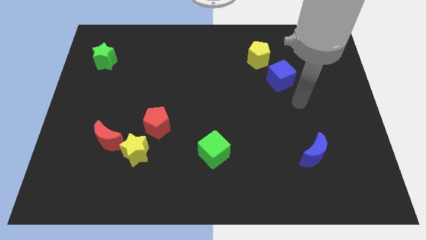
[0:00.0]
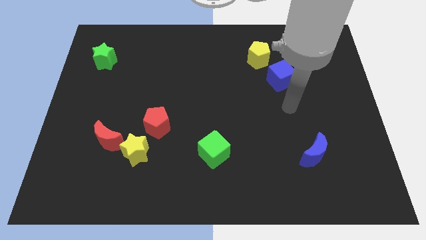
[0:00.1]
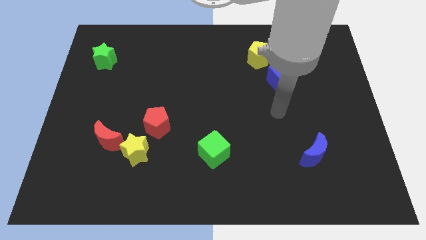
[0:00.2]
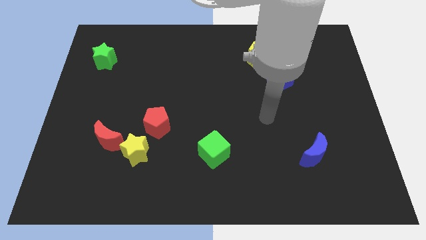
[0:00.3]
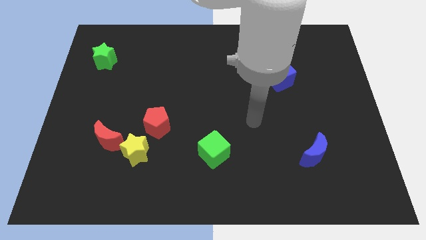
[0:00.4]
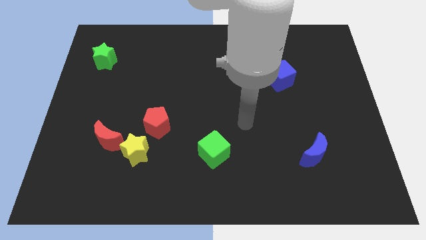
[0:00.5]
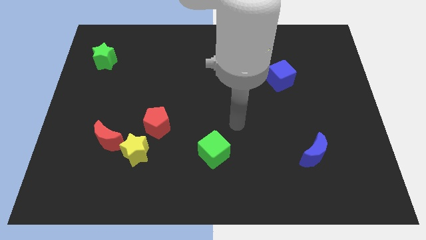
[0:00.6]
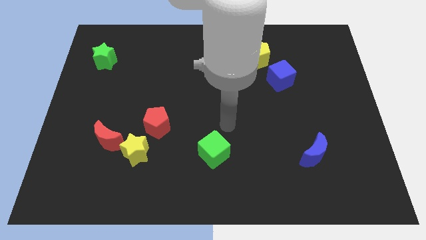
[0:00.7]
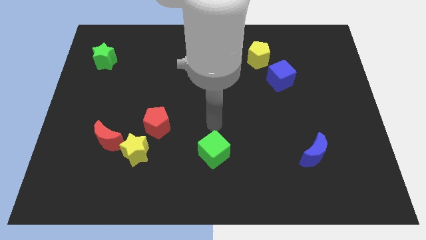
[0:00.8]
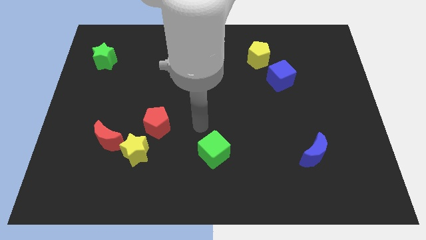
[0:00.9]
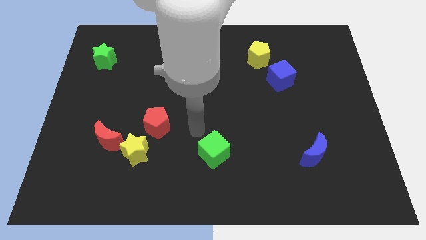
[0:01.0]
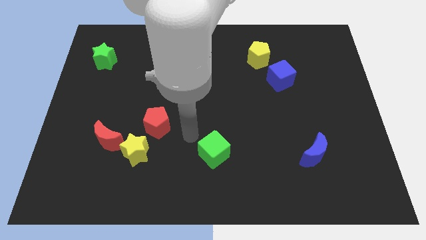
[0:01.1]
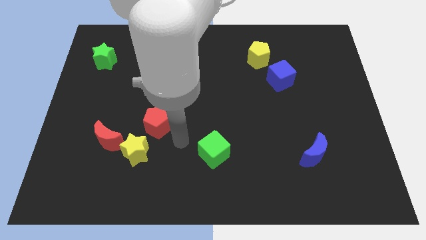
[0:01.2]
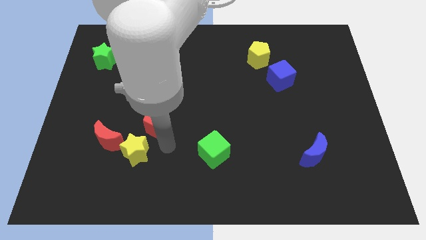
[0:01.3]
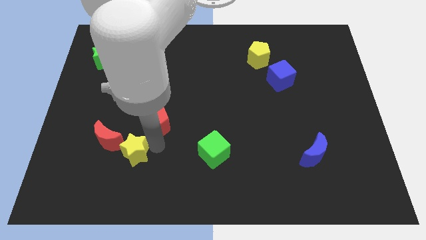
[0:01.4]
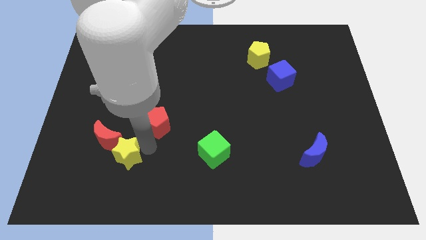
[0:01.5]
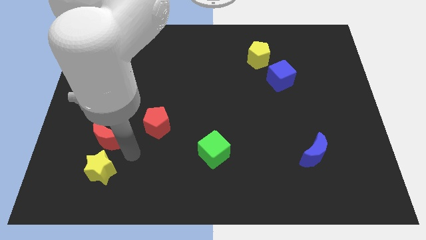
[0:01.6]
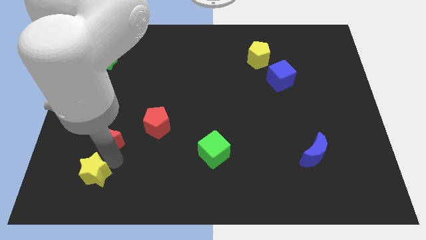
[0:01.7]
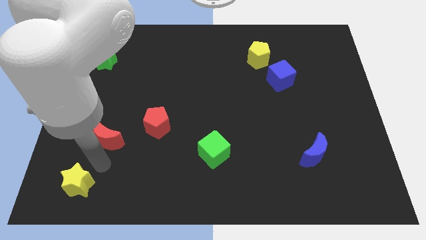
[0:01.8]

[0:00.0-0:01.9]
separate the red moon from the yellow star

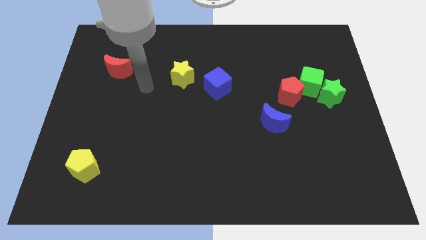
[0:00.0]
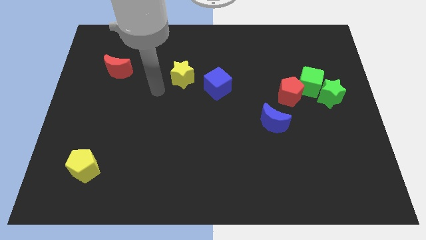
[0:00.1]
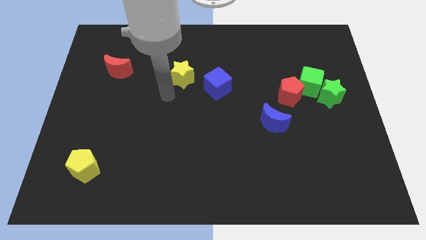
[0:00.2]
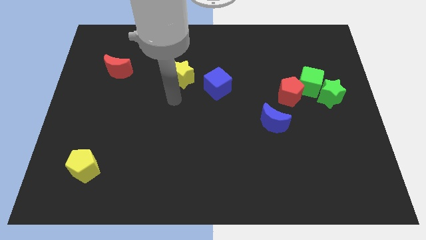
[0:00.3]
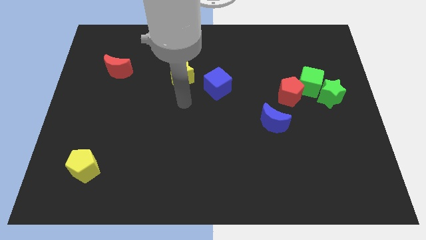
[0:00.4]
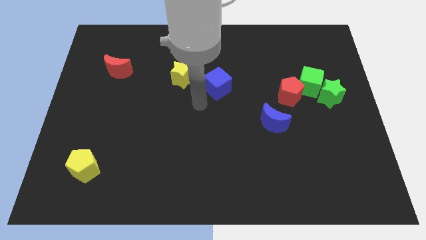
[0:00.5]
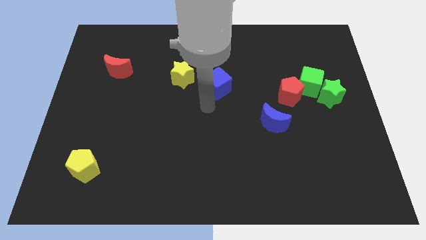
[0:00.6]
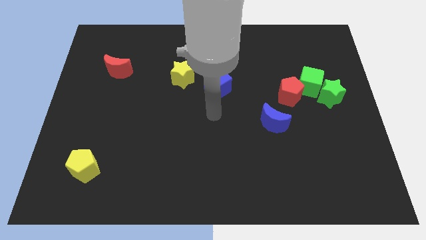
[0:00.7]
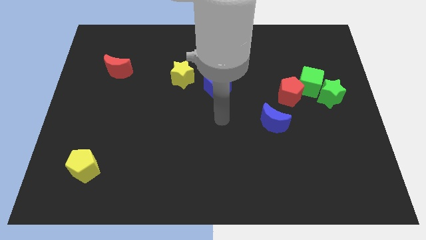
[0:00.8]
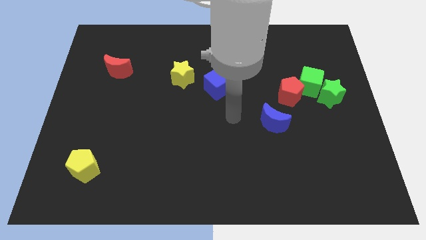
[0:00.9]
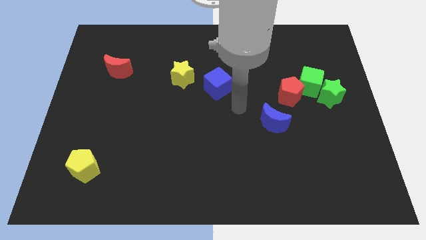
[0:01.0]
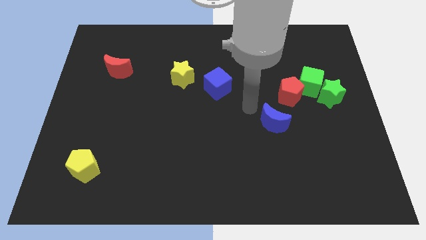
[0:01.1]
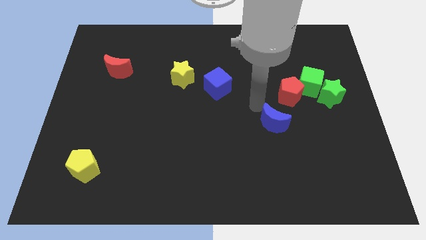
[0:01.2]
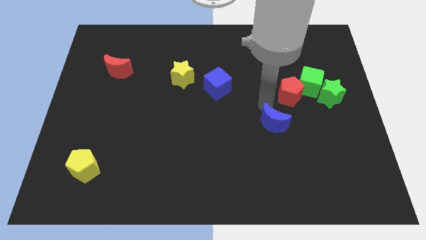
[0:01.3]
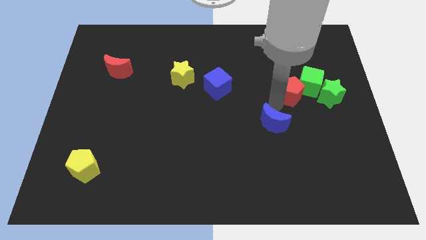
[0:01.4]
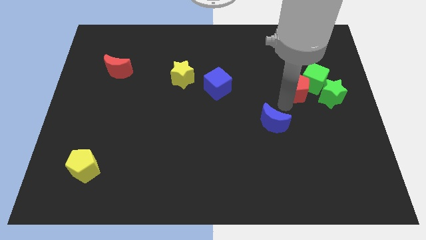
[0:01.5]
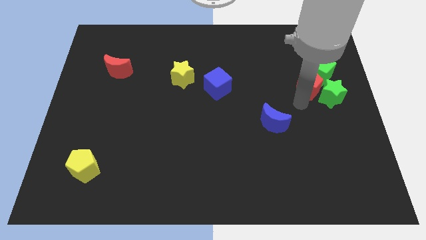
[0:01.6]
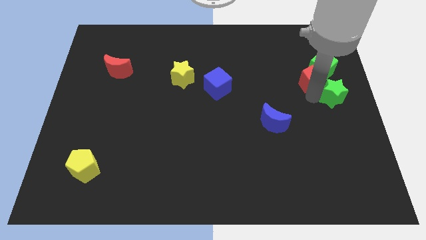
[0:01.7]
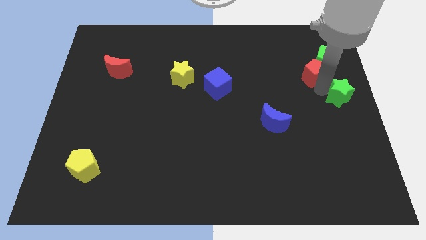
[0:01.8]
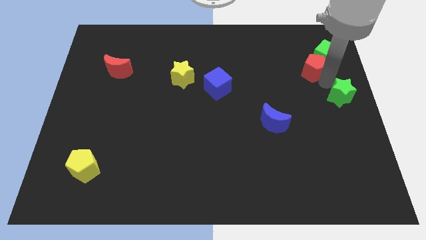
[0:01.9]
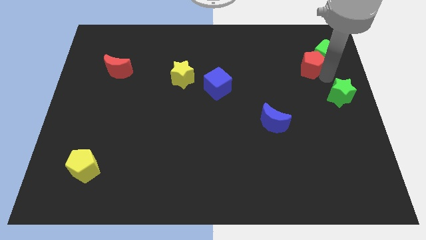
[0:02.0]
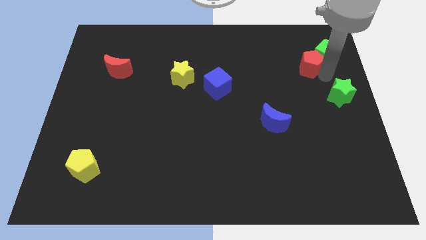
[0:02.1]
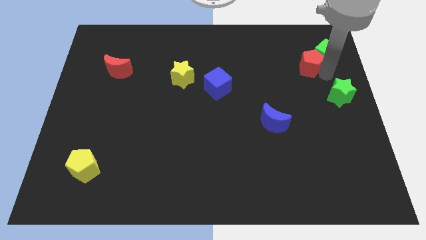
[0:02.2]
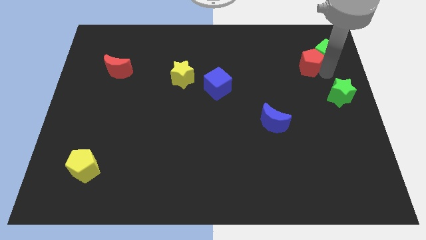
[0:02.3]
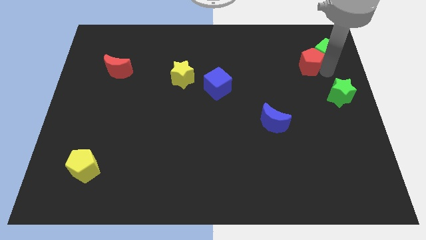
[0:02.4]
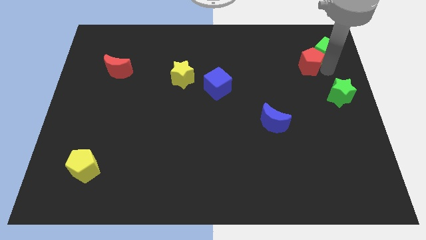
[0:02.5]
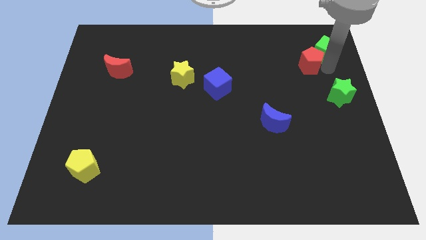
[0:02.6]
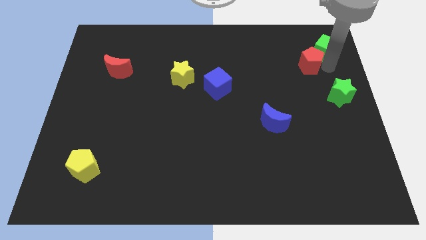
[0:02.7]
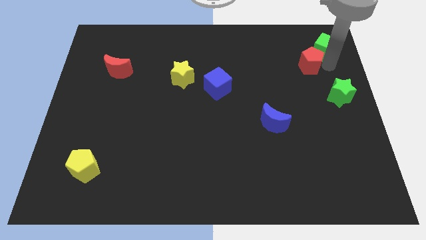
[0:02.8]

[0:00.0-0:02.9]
move the green cube away from the green star and red pentagon

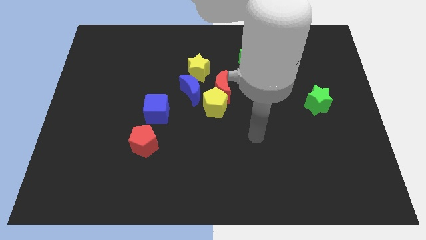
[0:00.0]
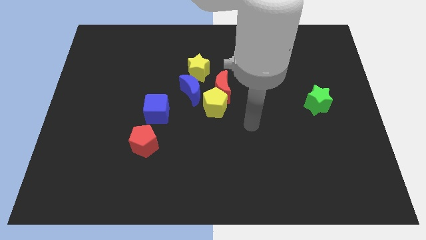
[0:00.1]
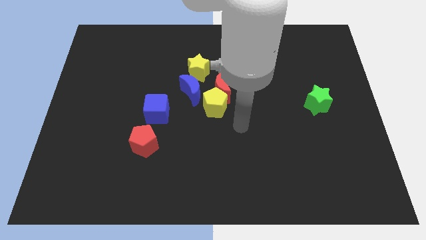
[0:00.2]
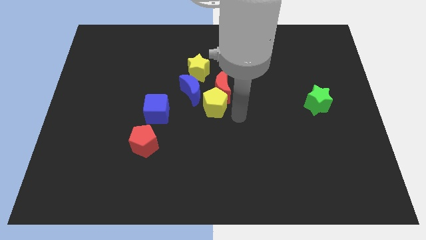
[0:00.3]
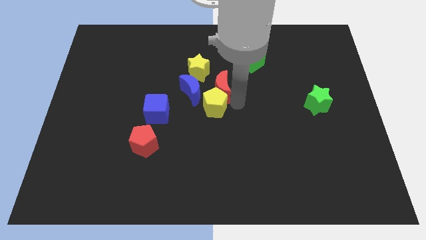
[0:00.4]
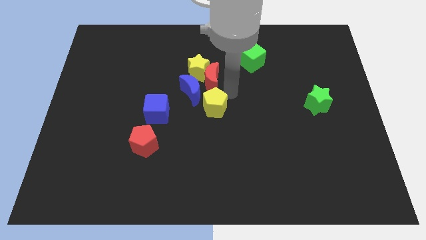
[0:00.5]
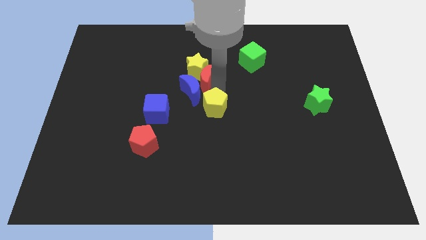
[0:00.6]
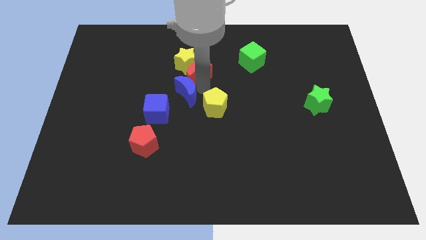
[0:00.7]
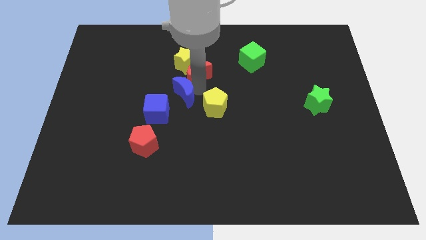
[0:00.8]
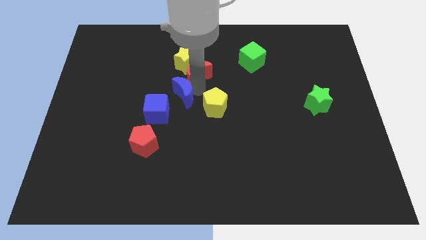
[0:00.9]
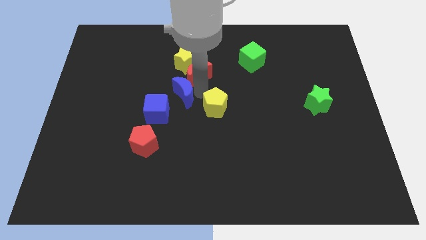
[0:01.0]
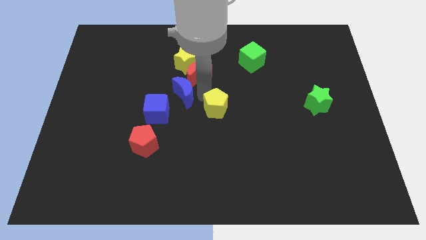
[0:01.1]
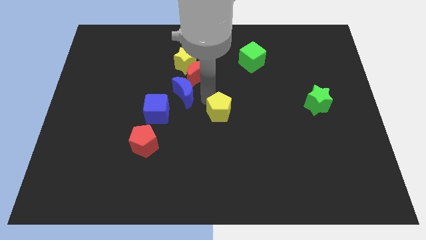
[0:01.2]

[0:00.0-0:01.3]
move the yellow pentagon away from the red moon and blue moon

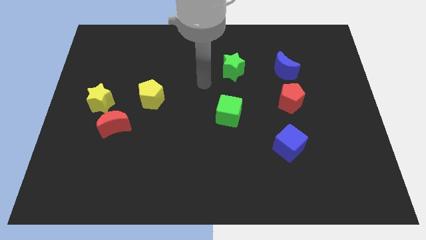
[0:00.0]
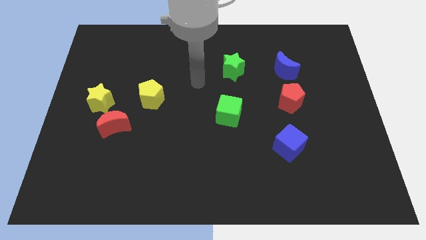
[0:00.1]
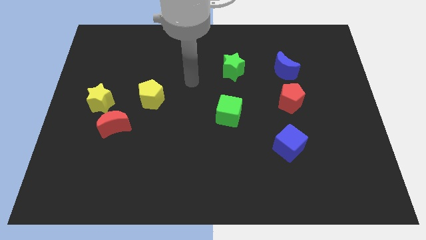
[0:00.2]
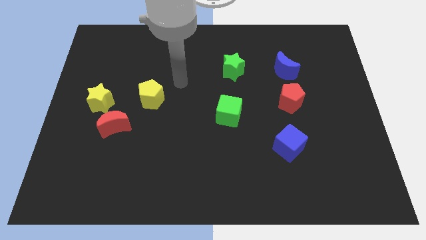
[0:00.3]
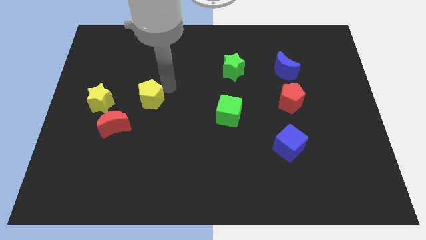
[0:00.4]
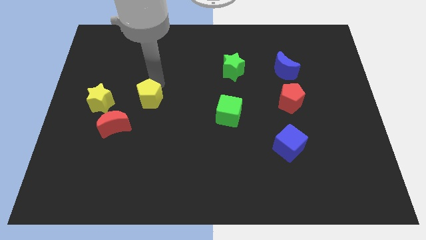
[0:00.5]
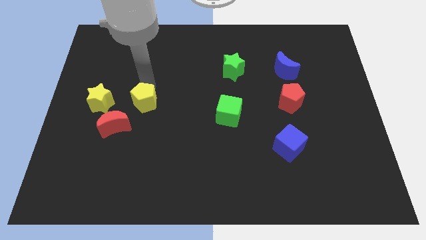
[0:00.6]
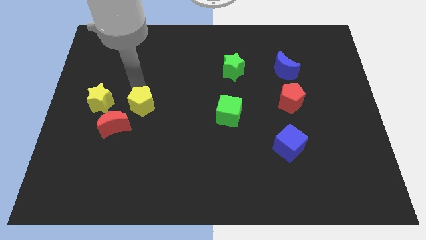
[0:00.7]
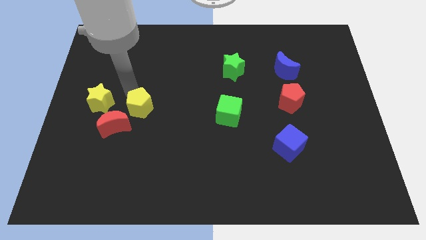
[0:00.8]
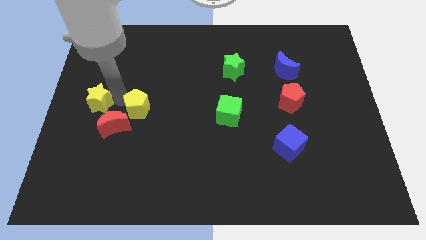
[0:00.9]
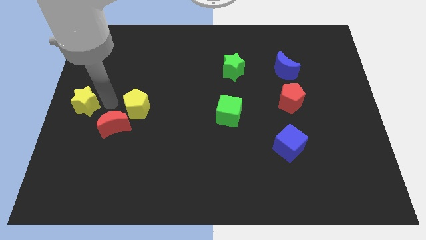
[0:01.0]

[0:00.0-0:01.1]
pull the red moon apart from the yellow star

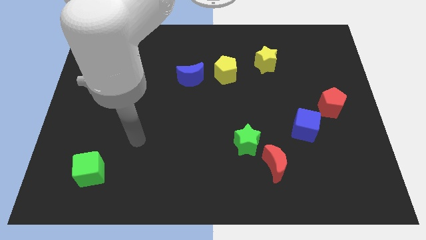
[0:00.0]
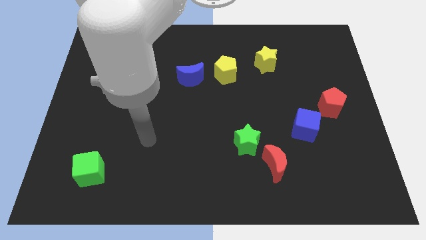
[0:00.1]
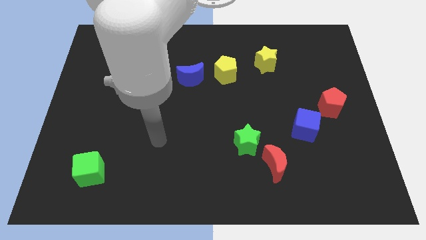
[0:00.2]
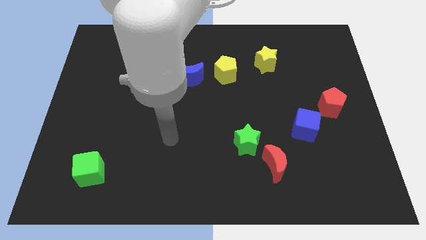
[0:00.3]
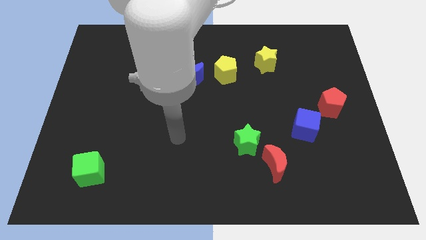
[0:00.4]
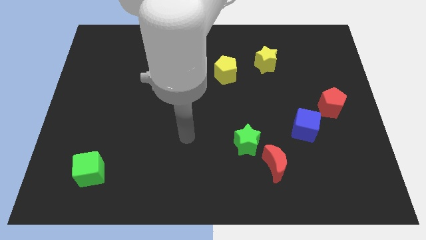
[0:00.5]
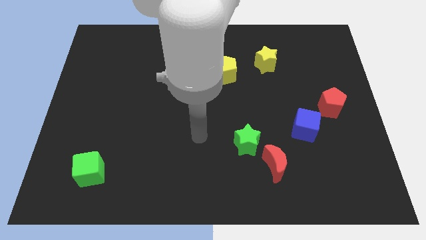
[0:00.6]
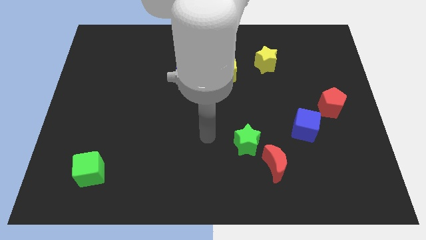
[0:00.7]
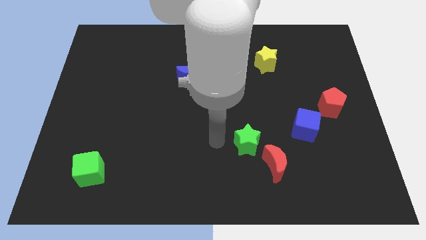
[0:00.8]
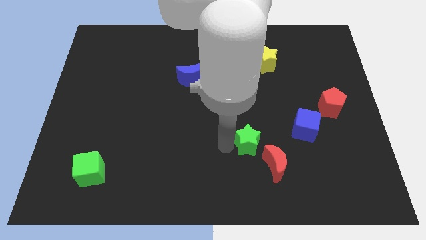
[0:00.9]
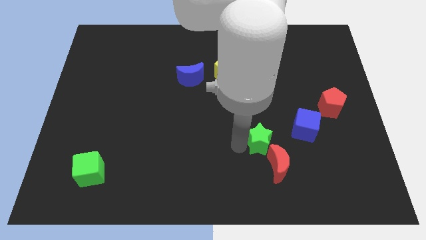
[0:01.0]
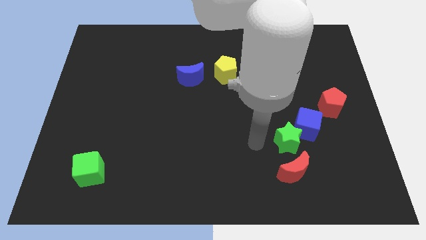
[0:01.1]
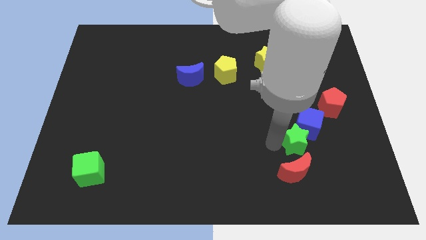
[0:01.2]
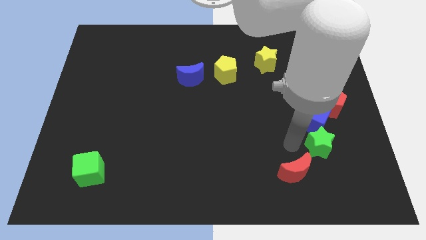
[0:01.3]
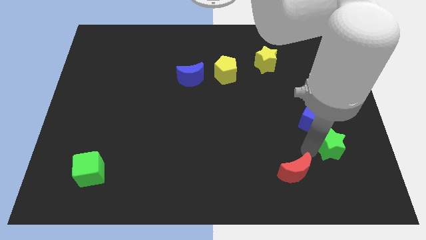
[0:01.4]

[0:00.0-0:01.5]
separate the red moon from the green star

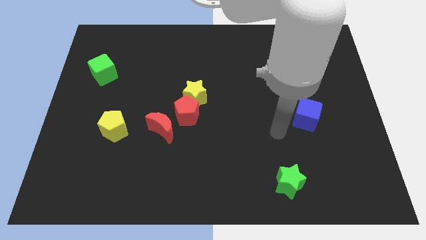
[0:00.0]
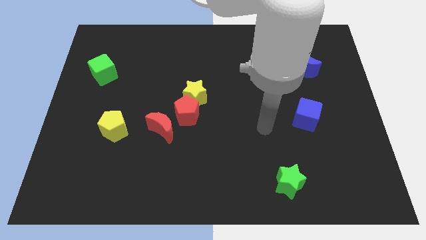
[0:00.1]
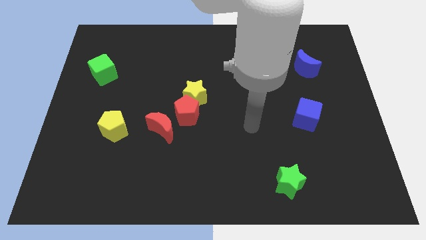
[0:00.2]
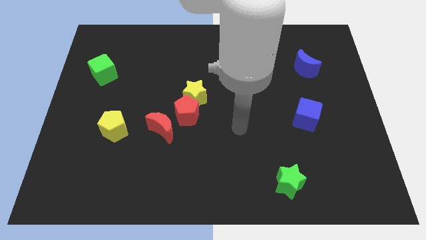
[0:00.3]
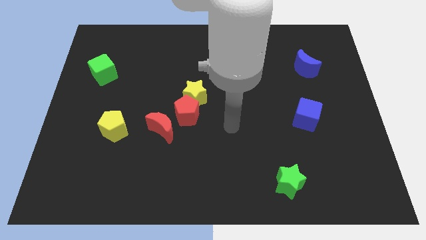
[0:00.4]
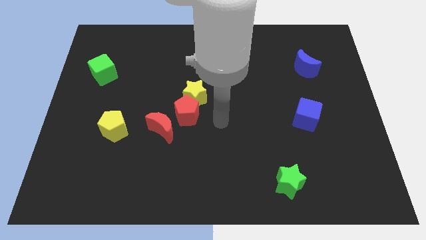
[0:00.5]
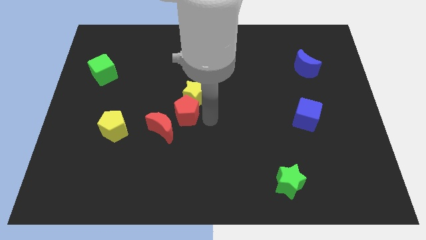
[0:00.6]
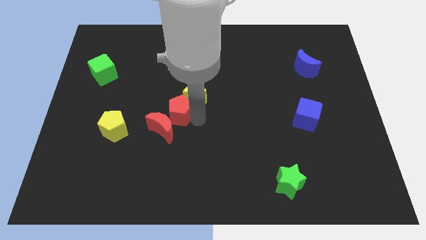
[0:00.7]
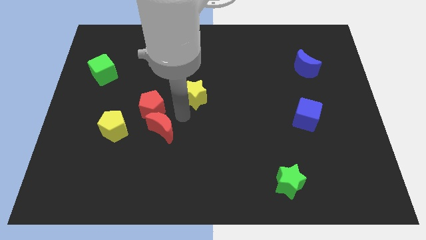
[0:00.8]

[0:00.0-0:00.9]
move the yellow star away from the red pentagon
